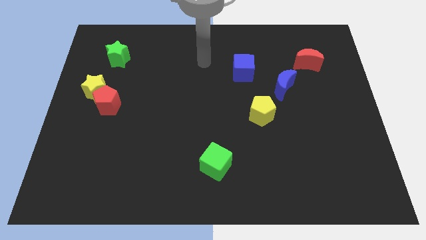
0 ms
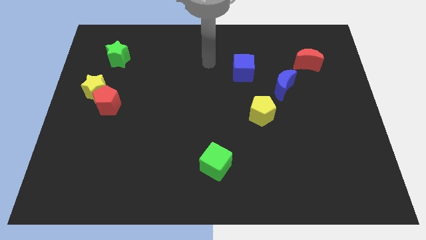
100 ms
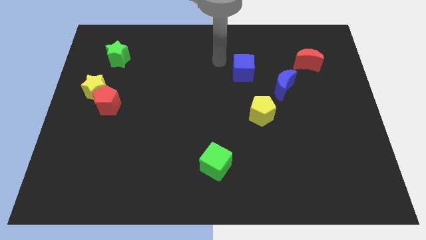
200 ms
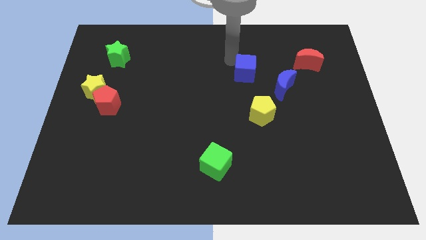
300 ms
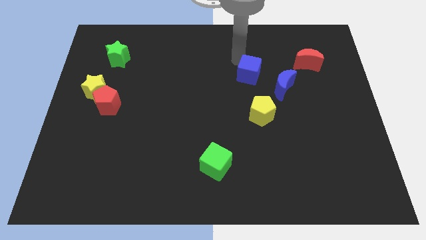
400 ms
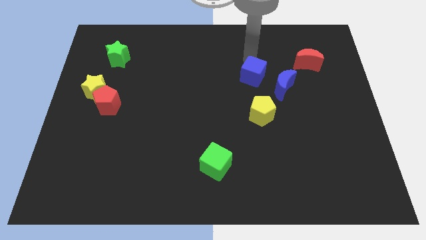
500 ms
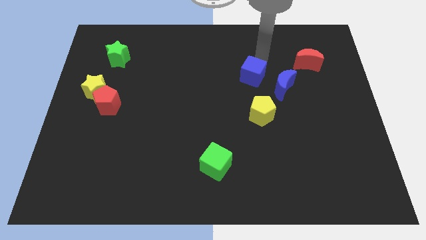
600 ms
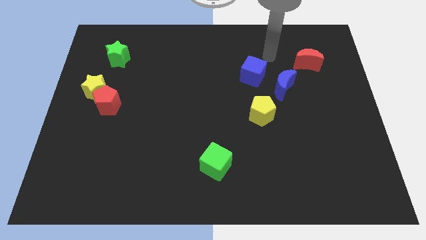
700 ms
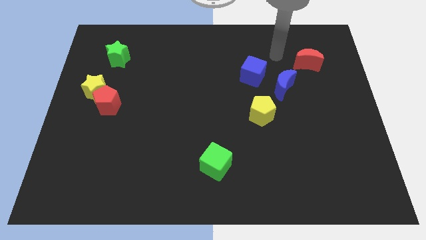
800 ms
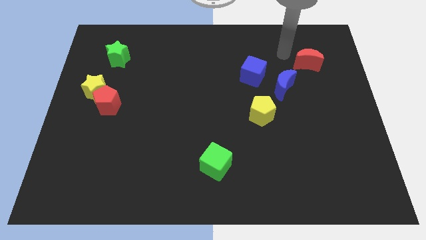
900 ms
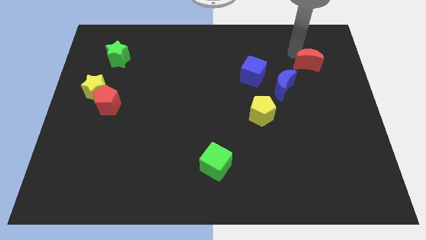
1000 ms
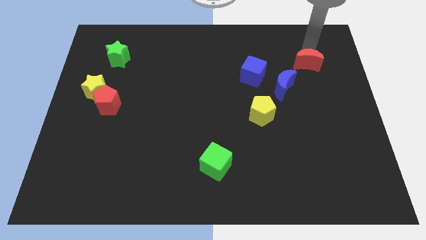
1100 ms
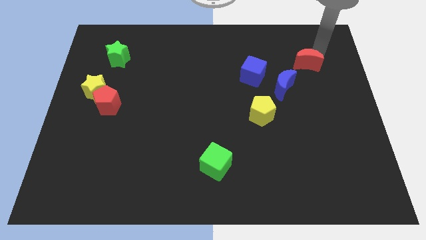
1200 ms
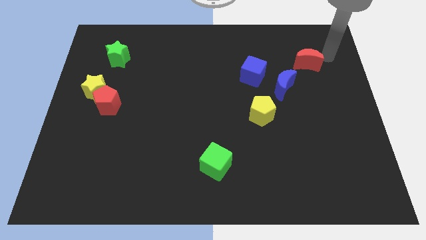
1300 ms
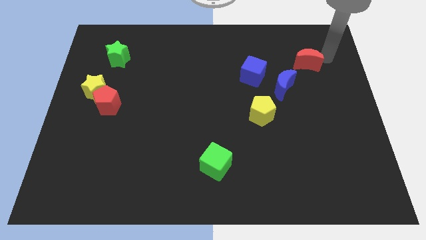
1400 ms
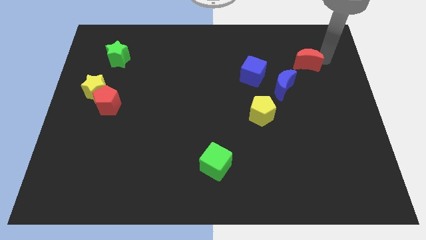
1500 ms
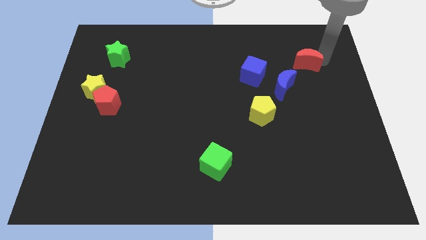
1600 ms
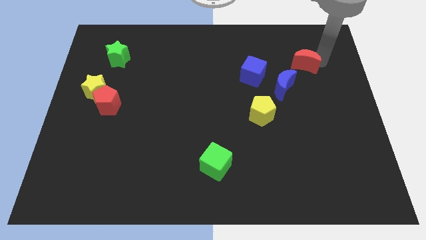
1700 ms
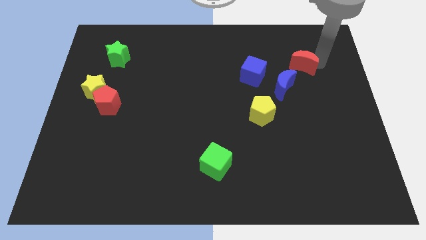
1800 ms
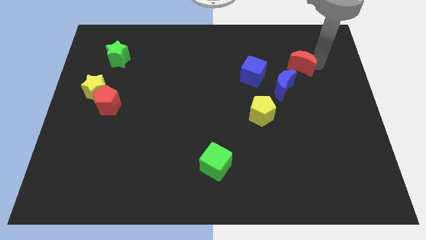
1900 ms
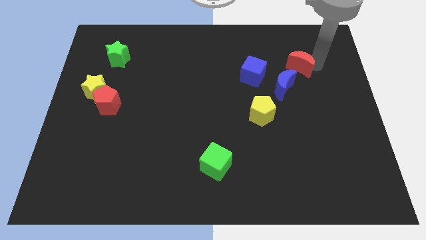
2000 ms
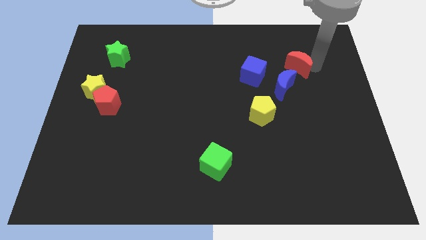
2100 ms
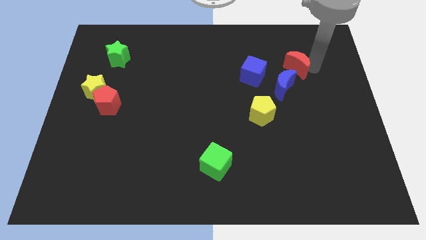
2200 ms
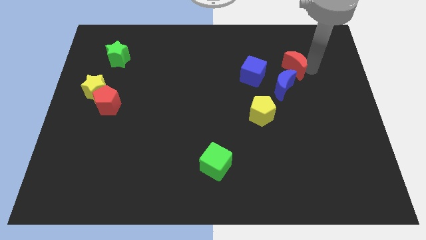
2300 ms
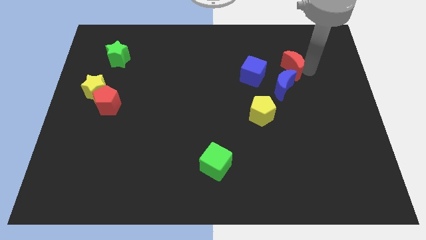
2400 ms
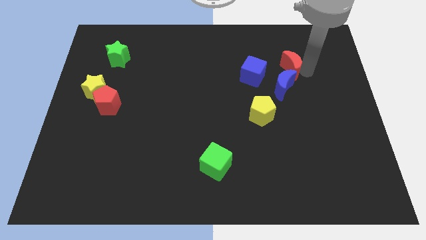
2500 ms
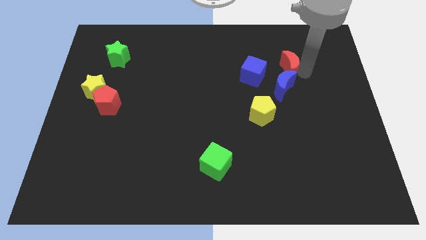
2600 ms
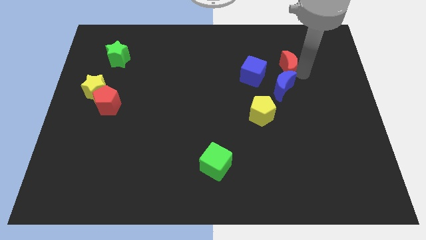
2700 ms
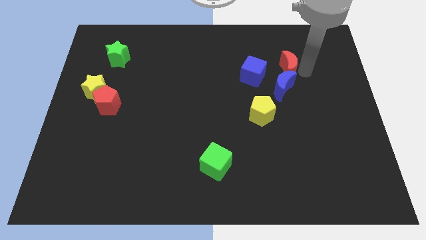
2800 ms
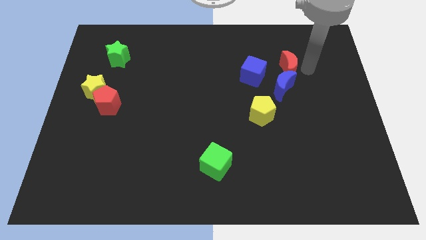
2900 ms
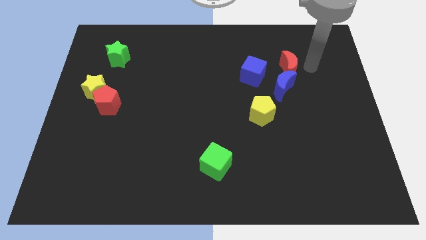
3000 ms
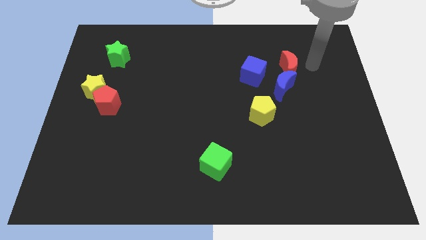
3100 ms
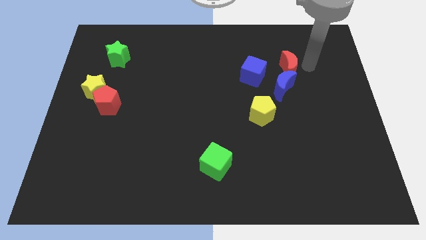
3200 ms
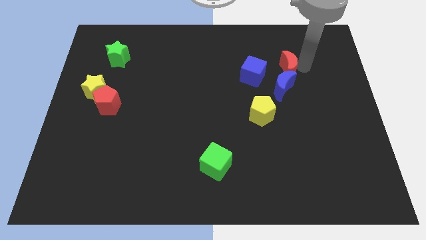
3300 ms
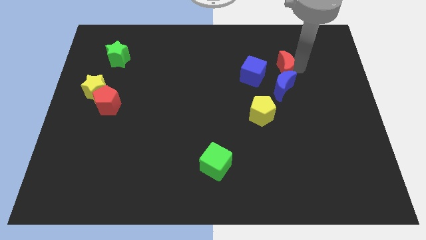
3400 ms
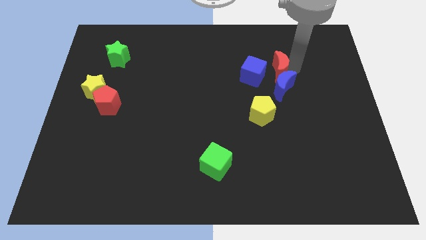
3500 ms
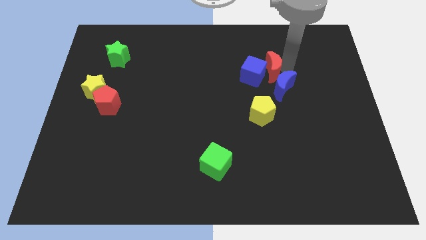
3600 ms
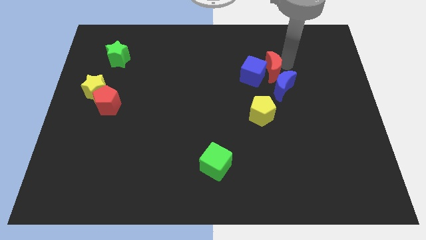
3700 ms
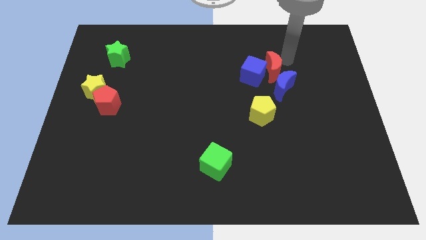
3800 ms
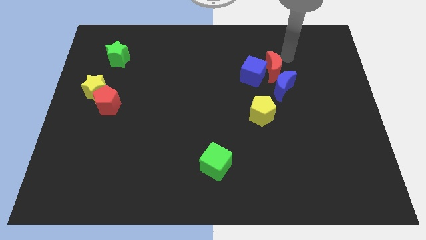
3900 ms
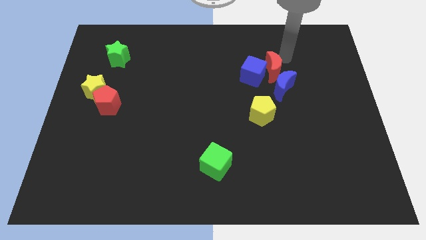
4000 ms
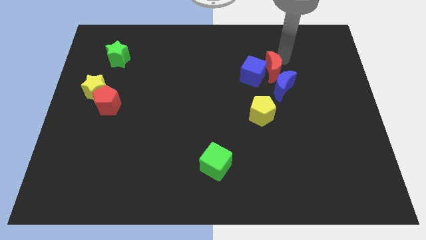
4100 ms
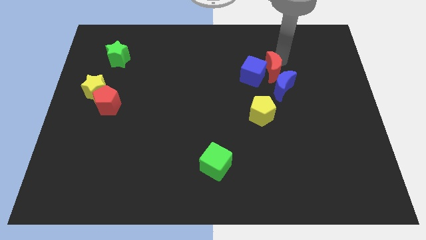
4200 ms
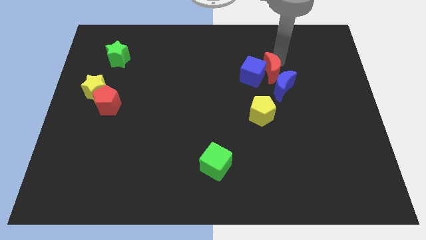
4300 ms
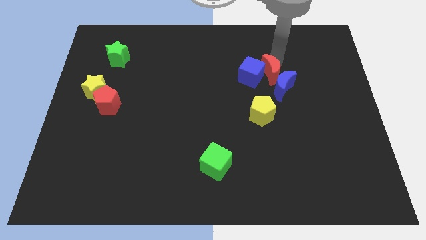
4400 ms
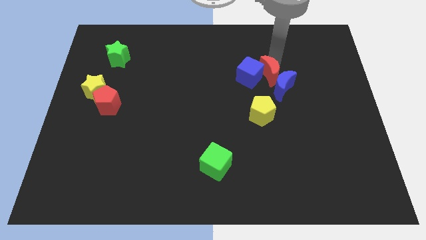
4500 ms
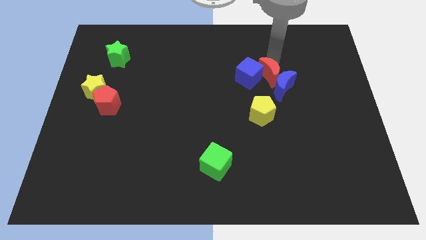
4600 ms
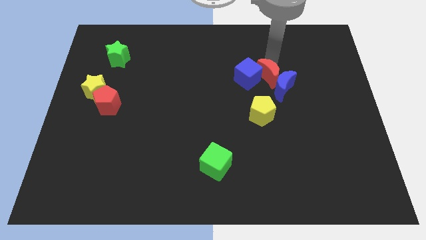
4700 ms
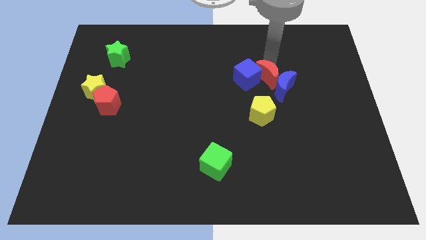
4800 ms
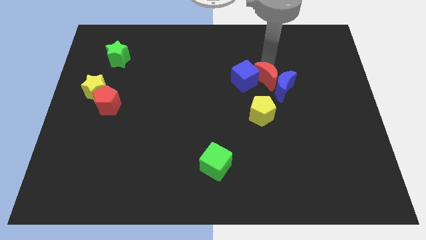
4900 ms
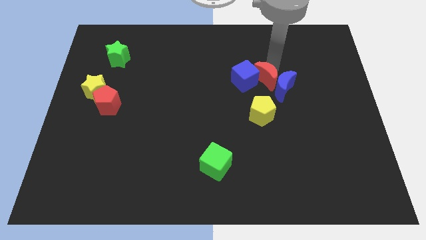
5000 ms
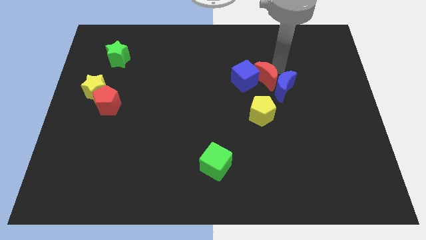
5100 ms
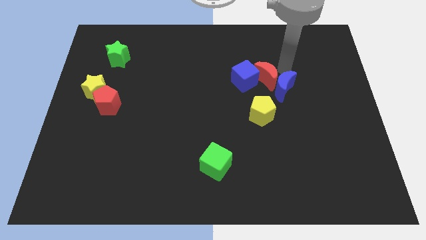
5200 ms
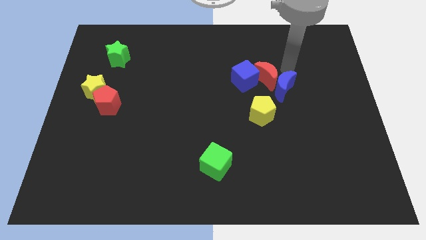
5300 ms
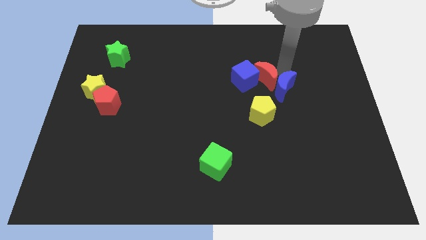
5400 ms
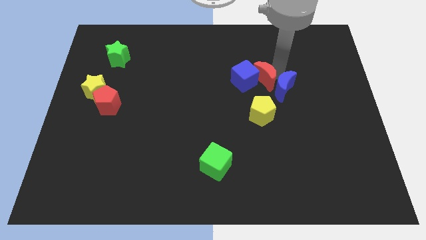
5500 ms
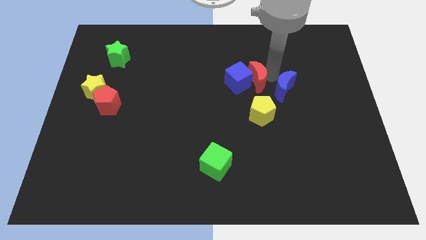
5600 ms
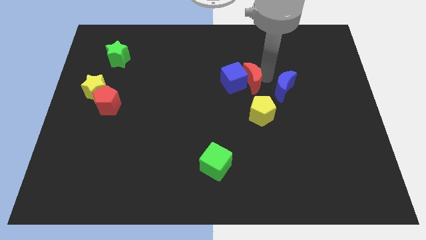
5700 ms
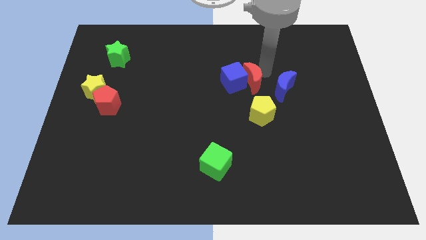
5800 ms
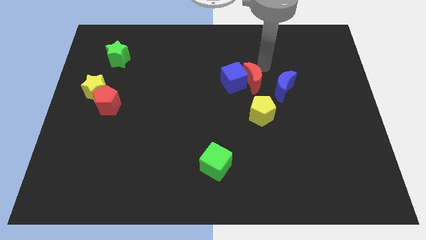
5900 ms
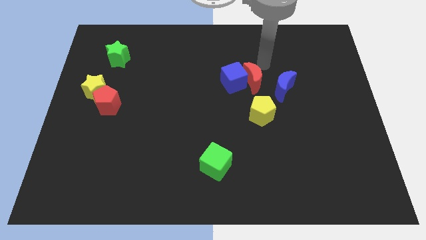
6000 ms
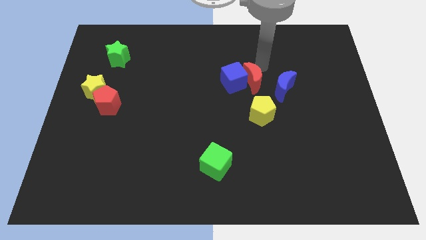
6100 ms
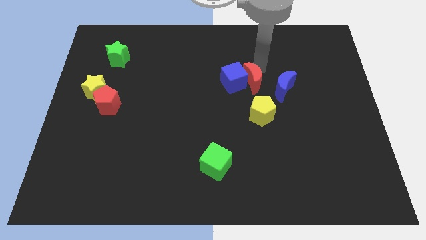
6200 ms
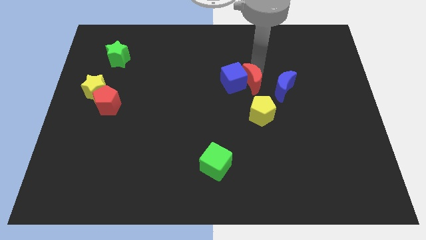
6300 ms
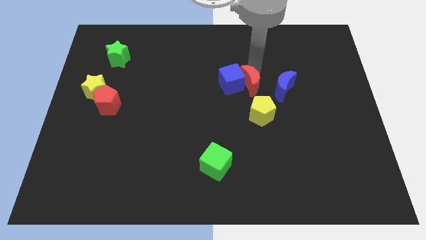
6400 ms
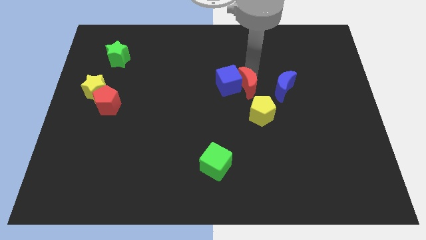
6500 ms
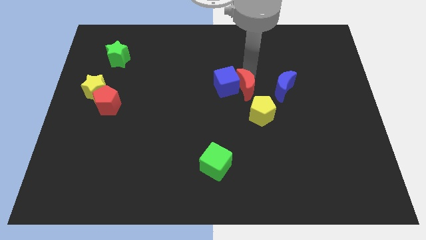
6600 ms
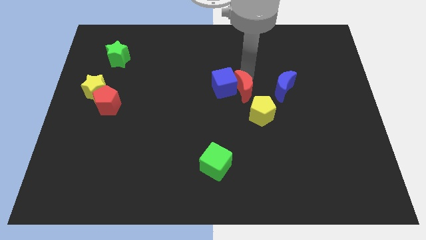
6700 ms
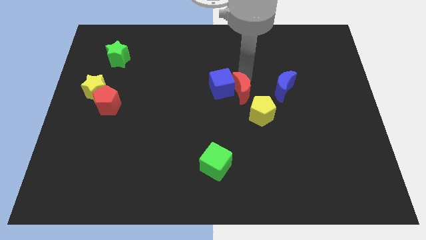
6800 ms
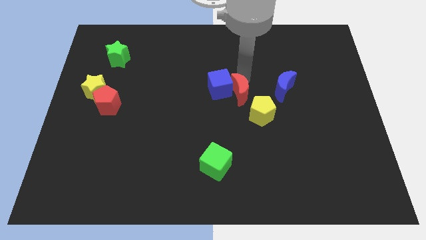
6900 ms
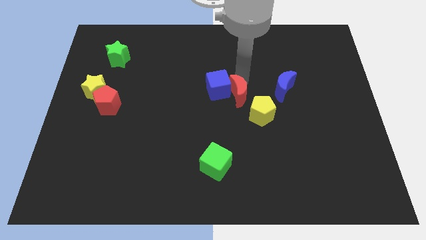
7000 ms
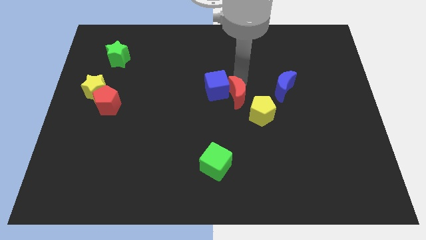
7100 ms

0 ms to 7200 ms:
move the red moon down and to the left

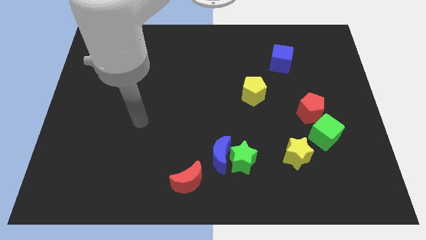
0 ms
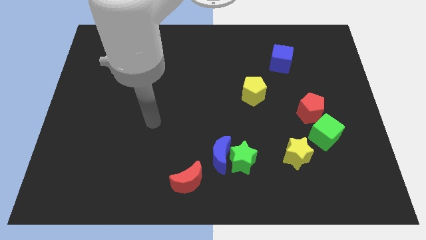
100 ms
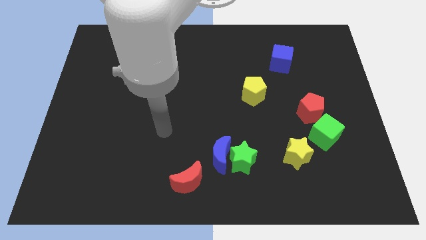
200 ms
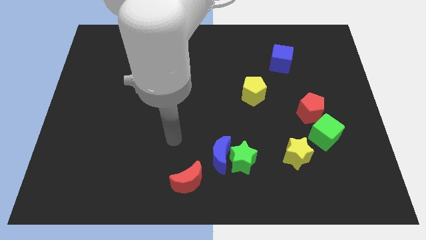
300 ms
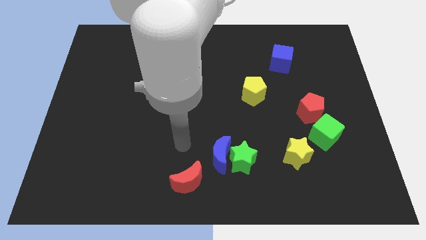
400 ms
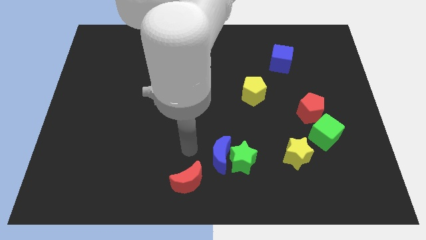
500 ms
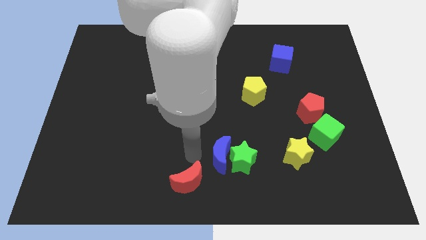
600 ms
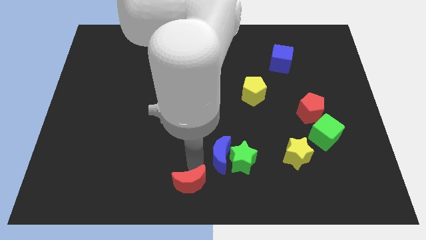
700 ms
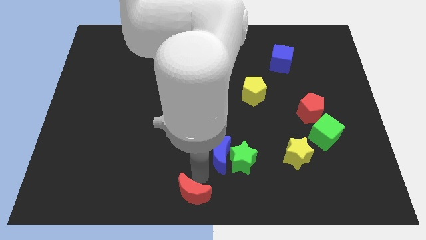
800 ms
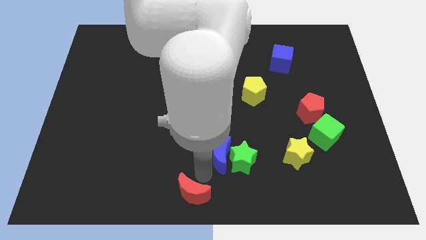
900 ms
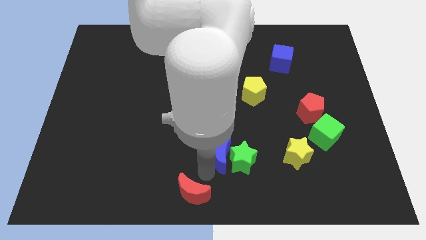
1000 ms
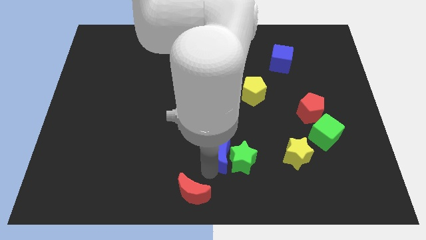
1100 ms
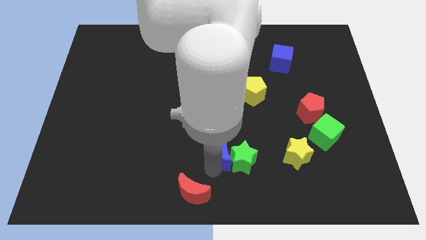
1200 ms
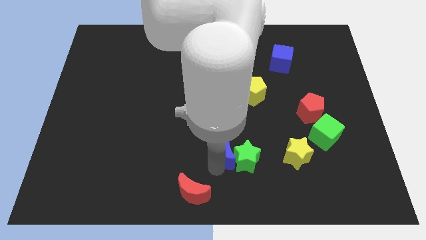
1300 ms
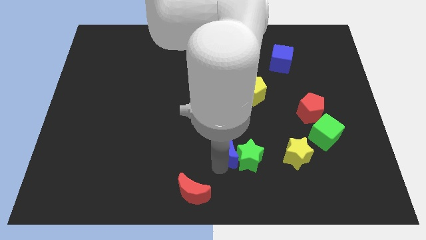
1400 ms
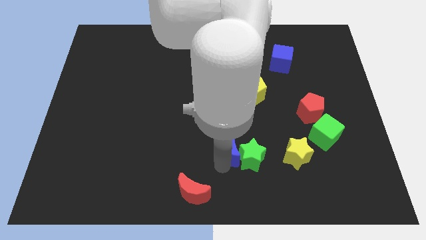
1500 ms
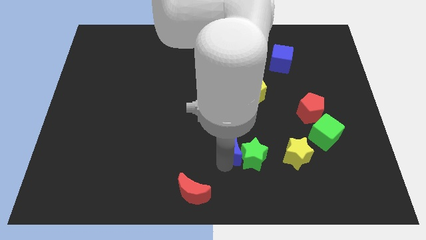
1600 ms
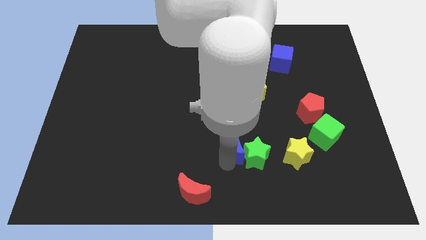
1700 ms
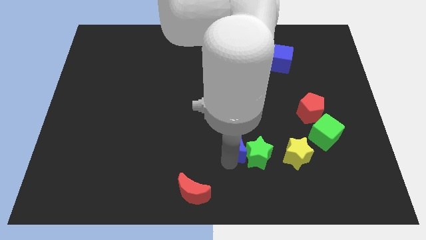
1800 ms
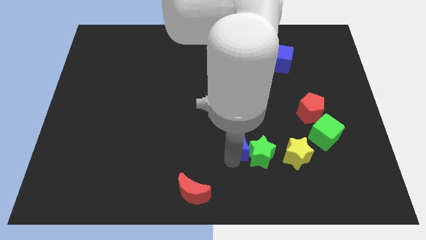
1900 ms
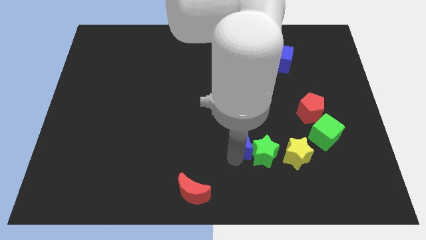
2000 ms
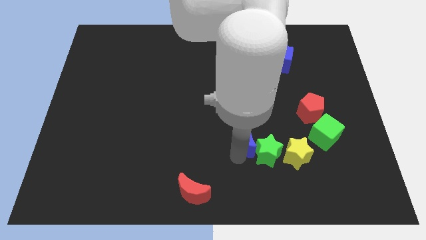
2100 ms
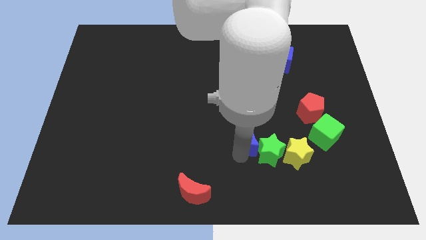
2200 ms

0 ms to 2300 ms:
move the blue moon somewhat up and then right
